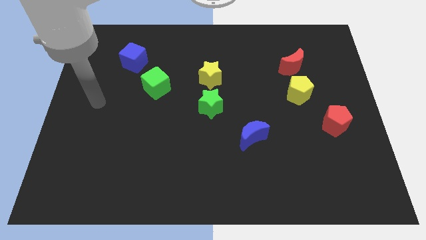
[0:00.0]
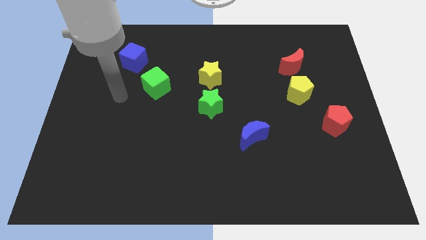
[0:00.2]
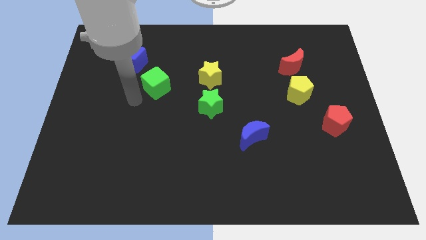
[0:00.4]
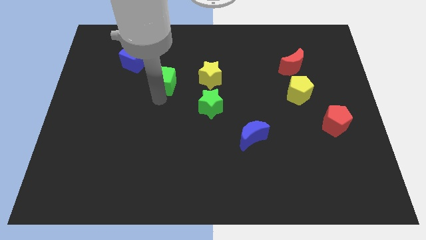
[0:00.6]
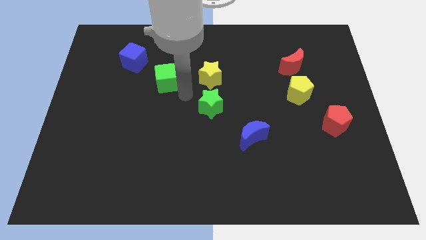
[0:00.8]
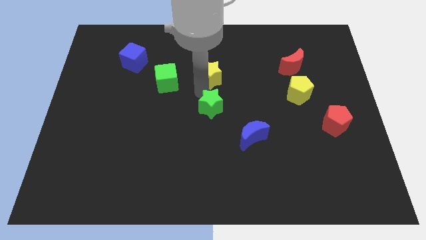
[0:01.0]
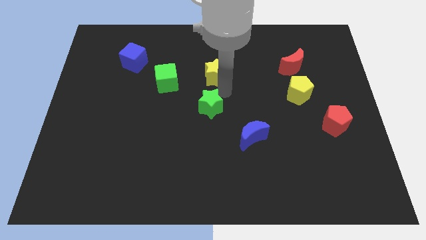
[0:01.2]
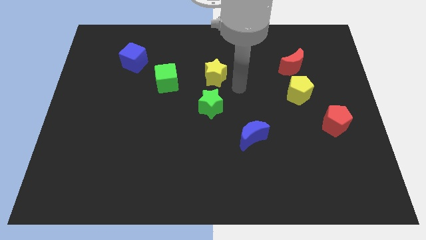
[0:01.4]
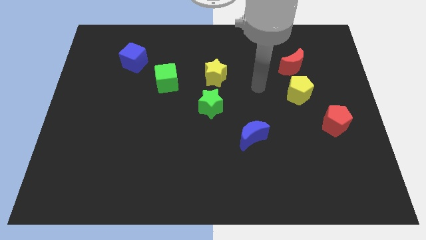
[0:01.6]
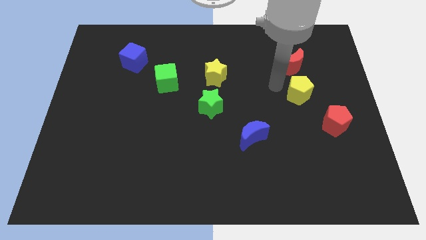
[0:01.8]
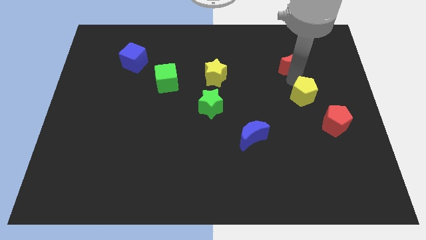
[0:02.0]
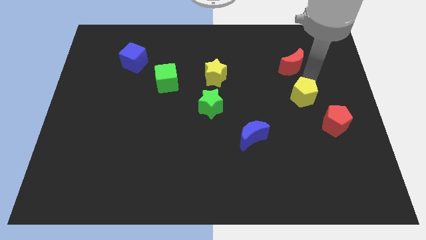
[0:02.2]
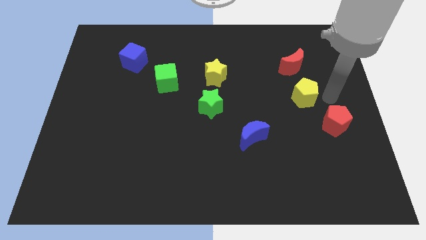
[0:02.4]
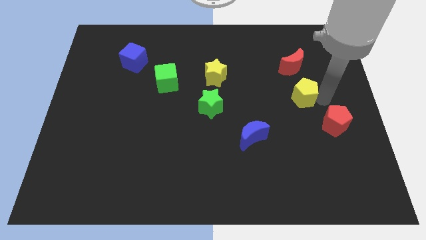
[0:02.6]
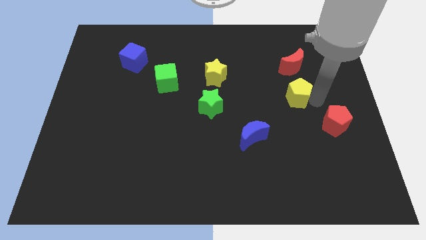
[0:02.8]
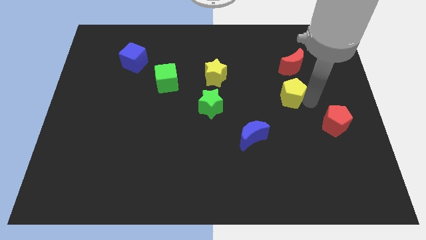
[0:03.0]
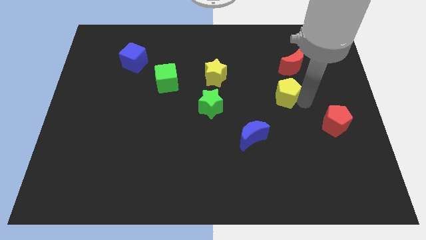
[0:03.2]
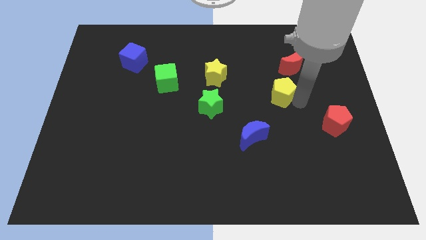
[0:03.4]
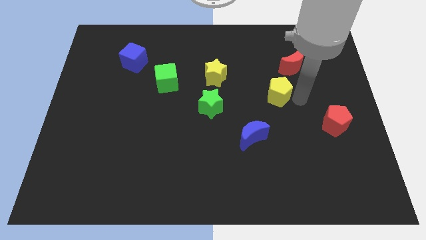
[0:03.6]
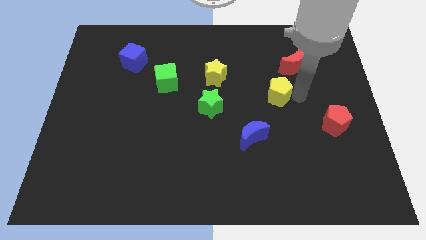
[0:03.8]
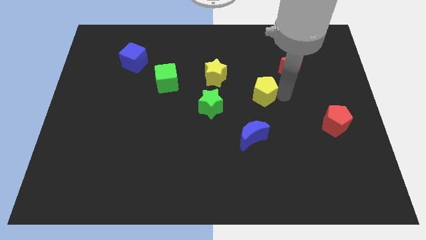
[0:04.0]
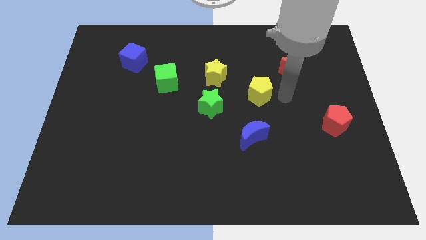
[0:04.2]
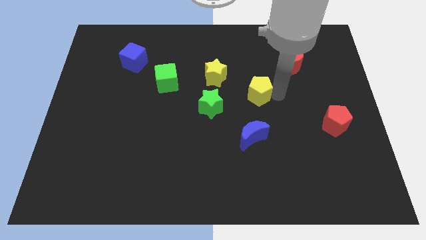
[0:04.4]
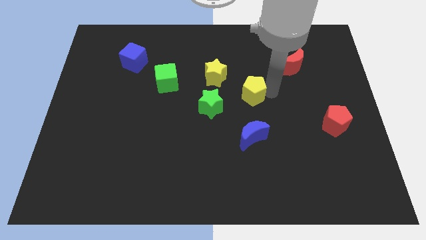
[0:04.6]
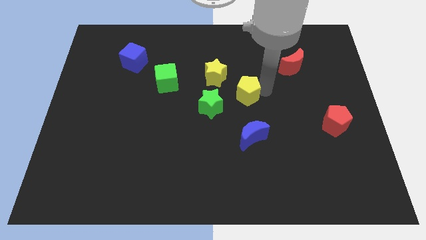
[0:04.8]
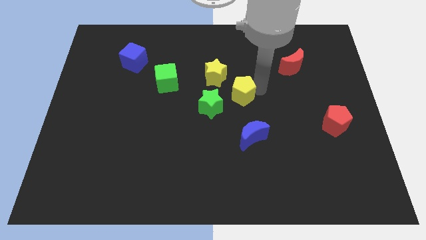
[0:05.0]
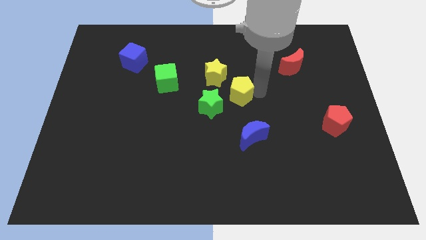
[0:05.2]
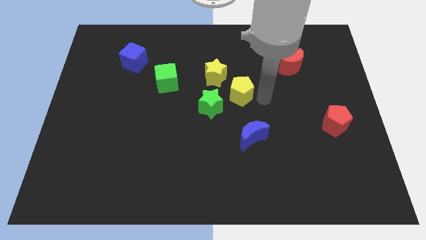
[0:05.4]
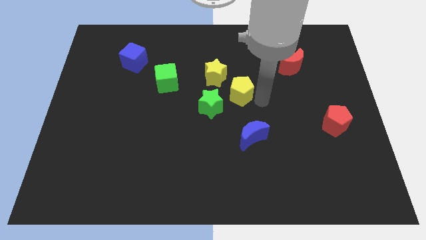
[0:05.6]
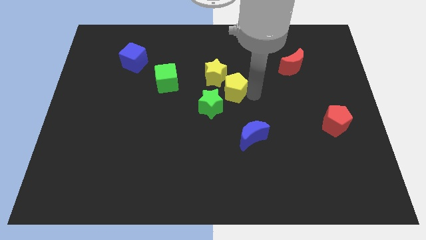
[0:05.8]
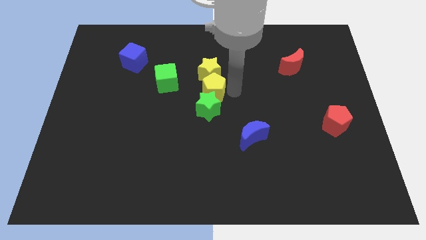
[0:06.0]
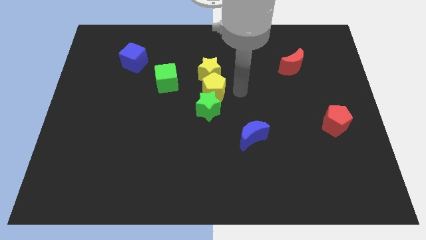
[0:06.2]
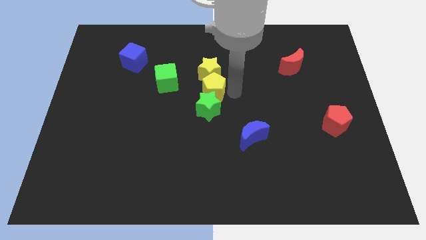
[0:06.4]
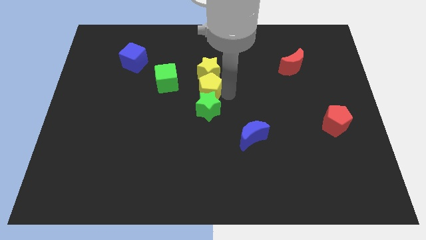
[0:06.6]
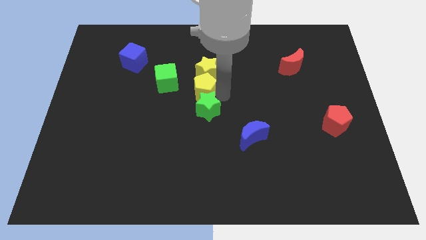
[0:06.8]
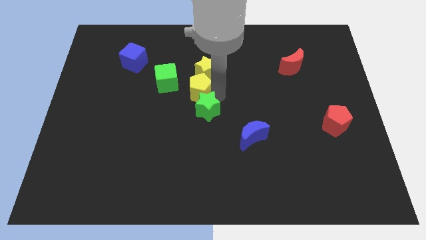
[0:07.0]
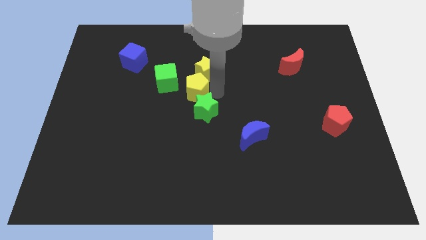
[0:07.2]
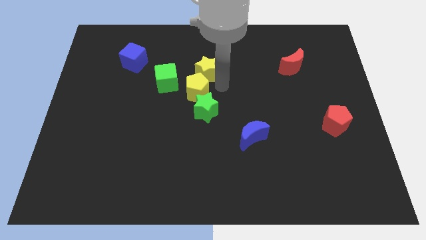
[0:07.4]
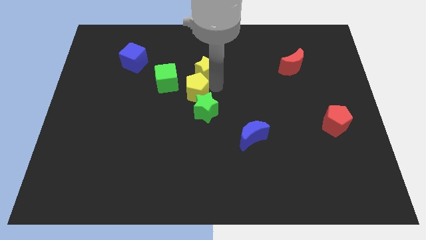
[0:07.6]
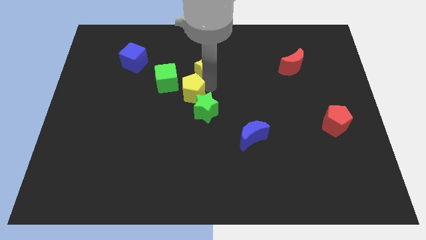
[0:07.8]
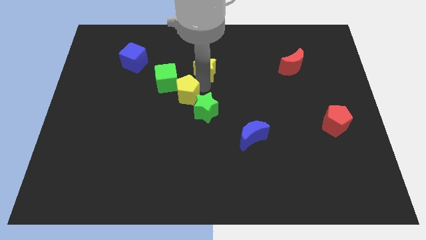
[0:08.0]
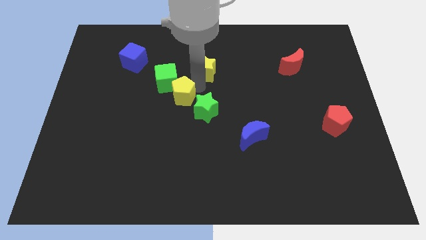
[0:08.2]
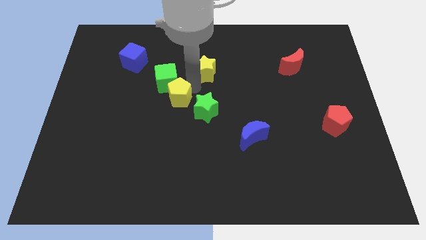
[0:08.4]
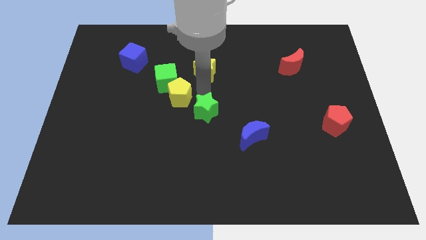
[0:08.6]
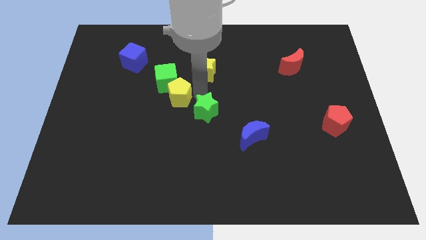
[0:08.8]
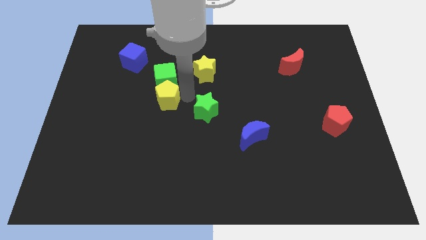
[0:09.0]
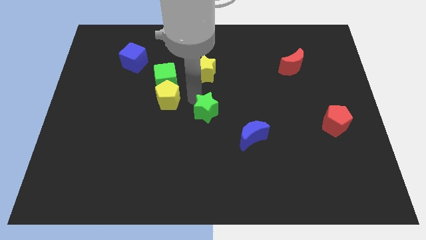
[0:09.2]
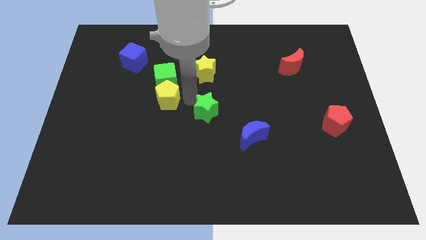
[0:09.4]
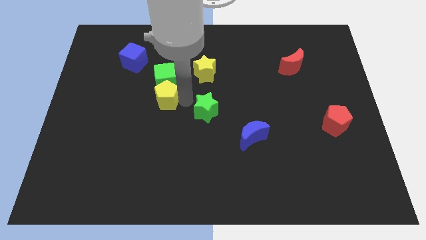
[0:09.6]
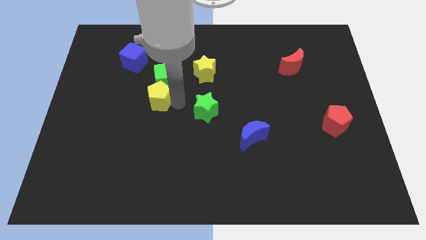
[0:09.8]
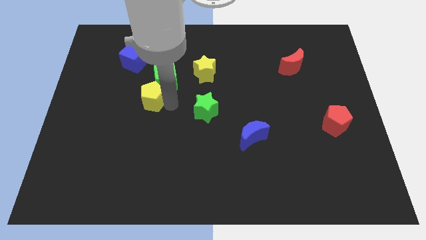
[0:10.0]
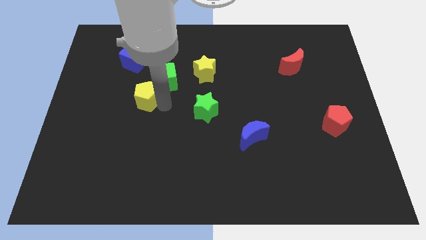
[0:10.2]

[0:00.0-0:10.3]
put the yellow pentagon to the bottom of the blue cube
